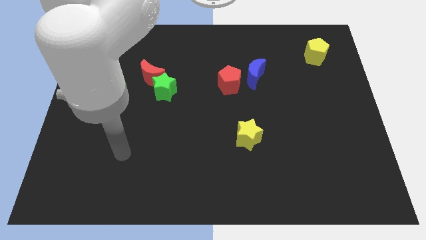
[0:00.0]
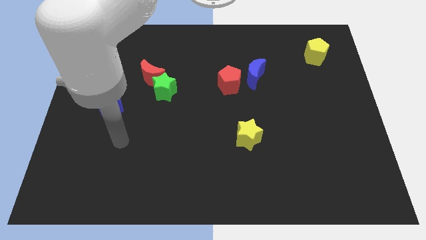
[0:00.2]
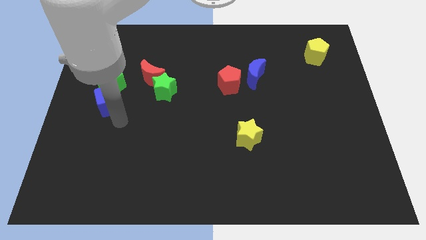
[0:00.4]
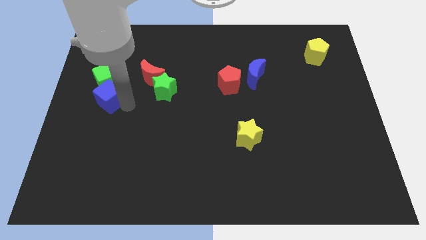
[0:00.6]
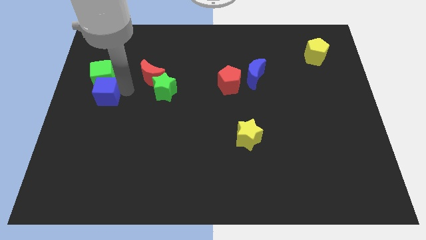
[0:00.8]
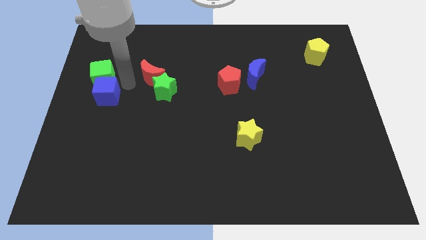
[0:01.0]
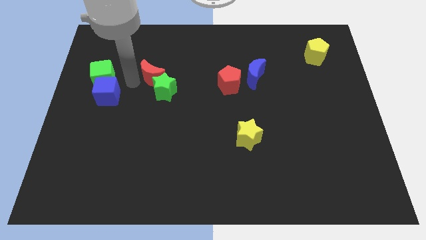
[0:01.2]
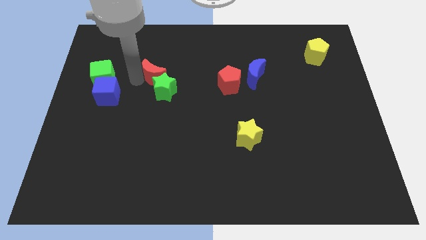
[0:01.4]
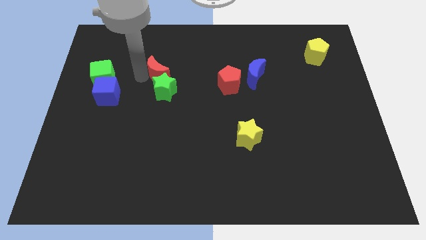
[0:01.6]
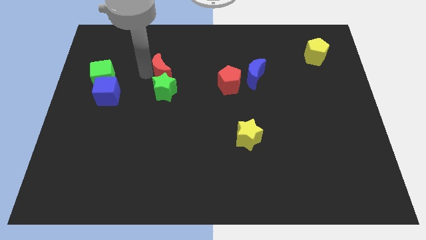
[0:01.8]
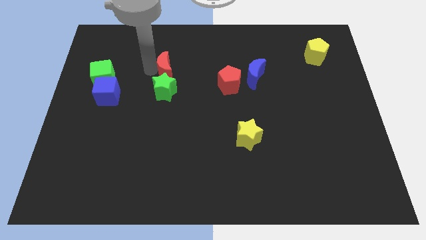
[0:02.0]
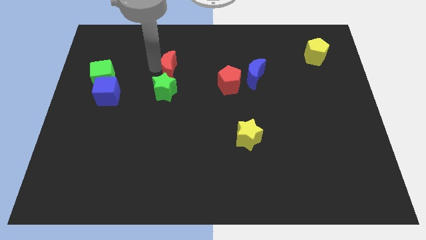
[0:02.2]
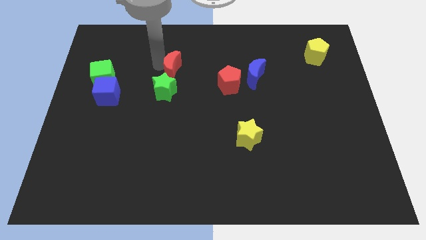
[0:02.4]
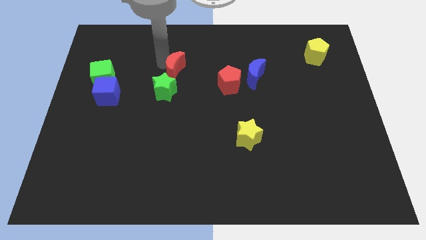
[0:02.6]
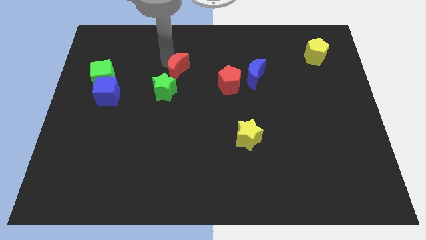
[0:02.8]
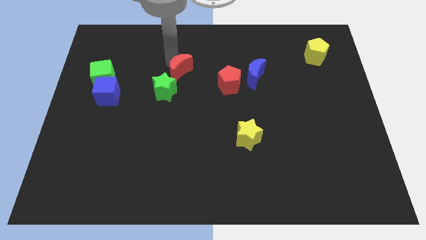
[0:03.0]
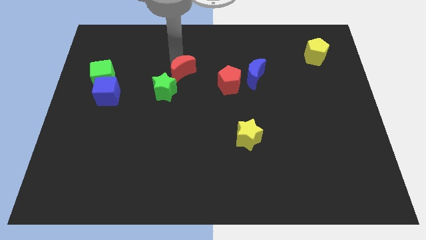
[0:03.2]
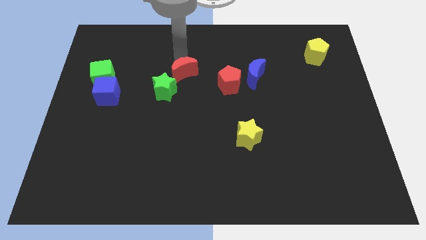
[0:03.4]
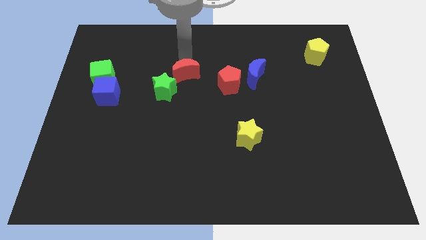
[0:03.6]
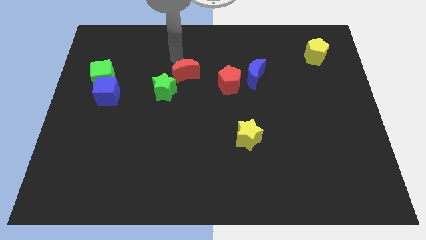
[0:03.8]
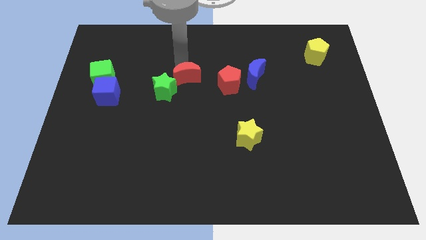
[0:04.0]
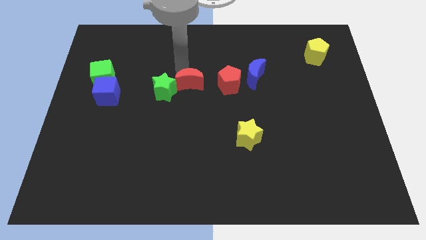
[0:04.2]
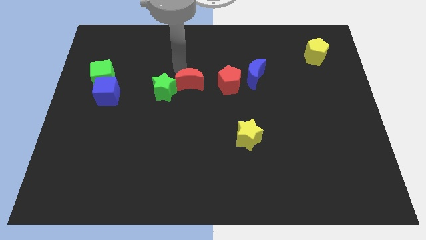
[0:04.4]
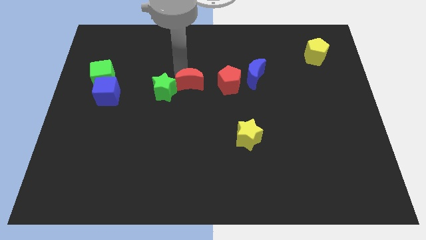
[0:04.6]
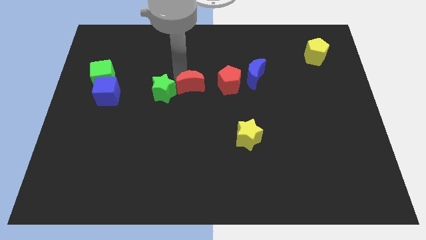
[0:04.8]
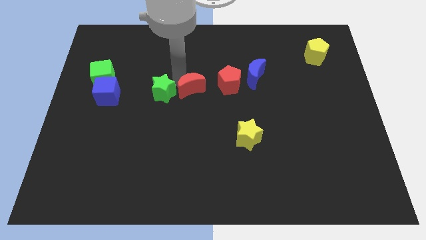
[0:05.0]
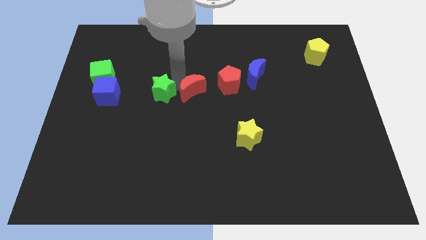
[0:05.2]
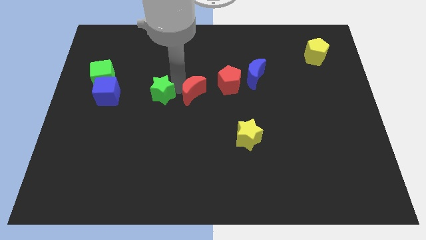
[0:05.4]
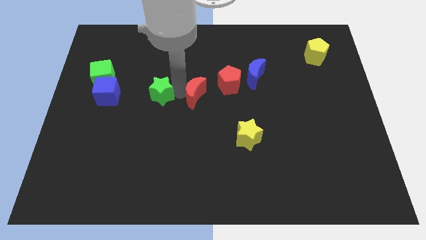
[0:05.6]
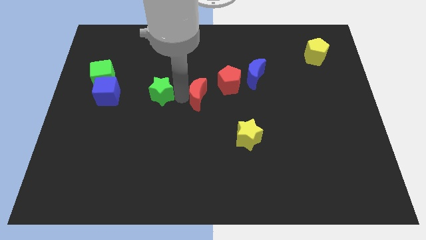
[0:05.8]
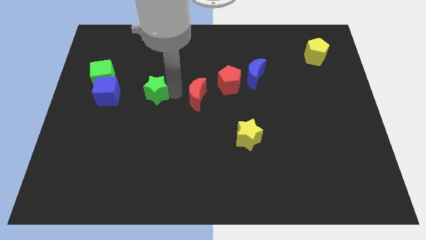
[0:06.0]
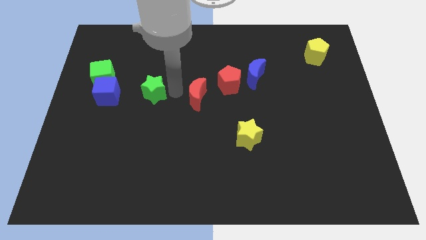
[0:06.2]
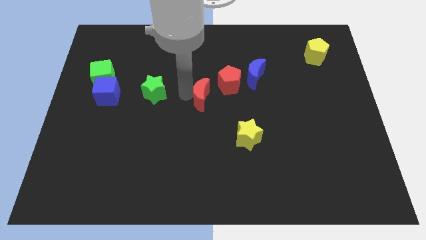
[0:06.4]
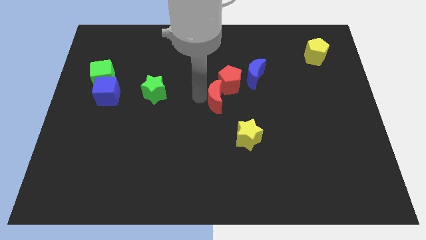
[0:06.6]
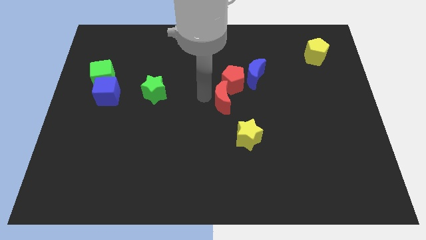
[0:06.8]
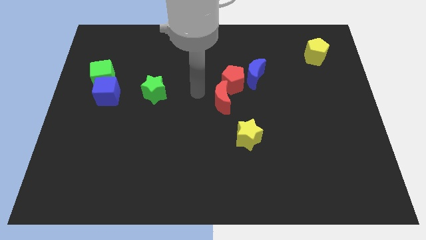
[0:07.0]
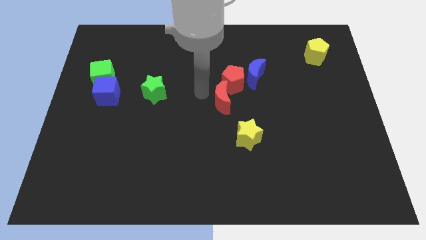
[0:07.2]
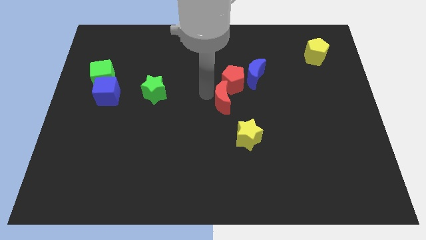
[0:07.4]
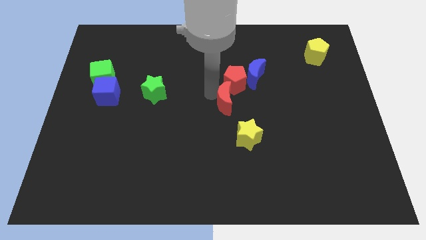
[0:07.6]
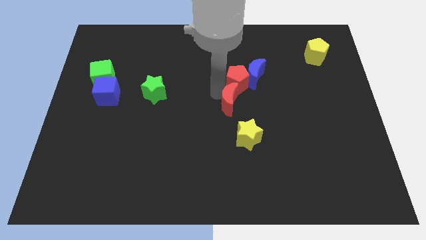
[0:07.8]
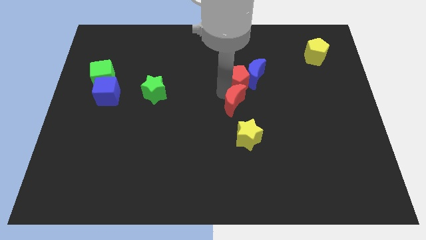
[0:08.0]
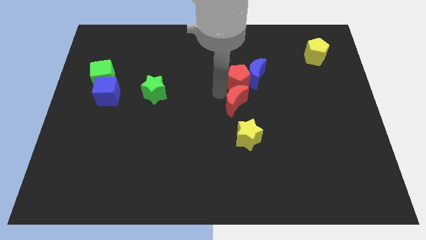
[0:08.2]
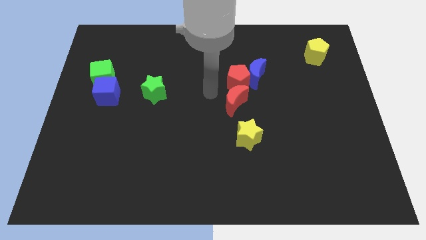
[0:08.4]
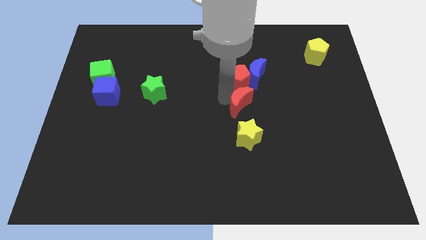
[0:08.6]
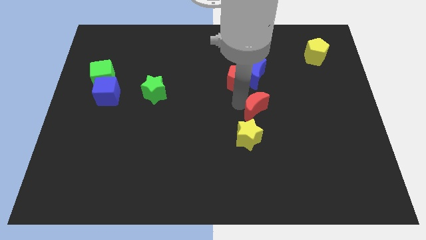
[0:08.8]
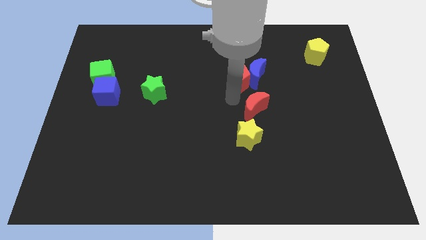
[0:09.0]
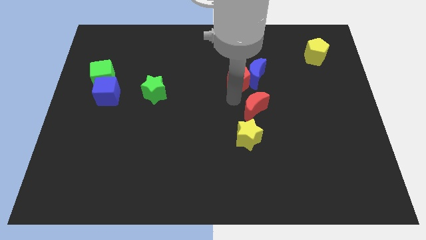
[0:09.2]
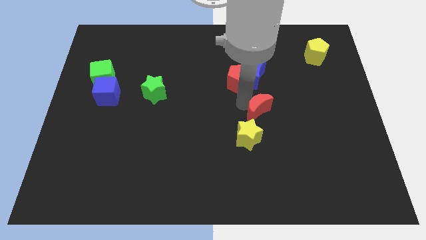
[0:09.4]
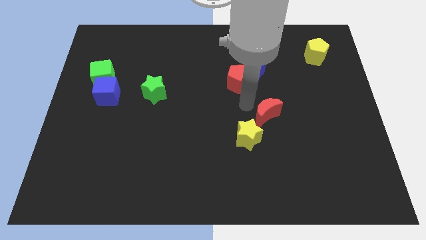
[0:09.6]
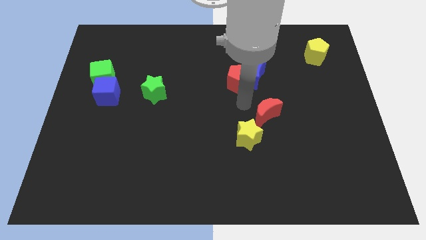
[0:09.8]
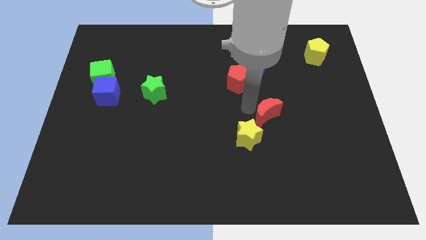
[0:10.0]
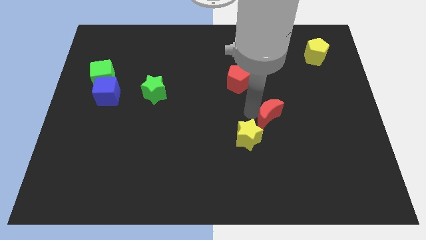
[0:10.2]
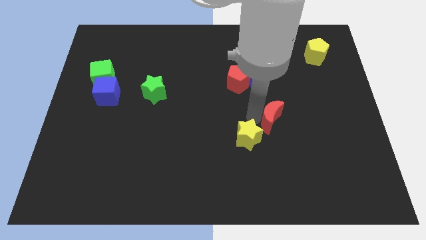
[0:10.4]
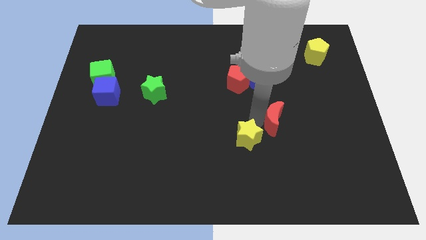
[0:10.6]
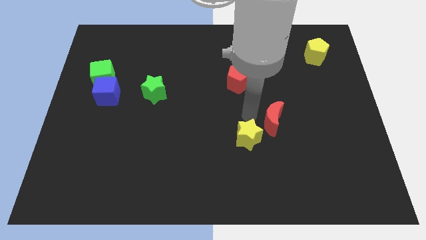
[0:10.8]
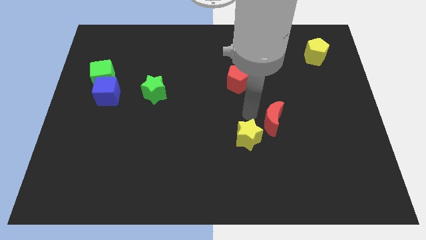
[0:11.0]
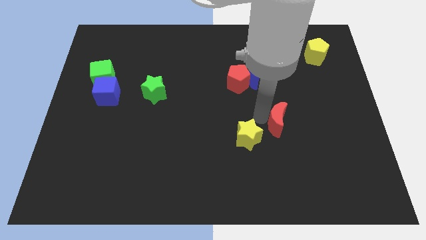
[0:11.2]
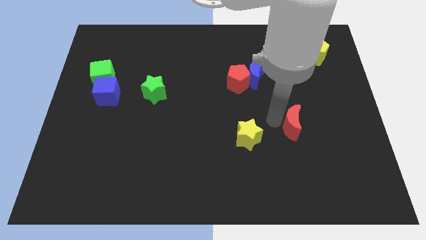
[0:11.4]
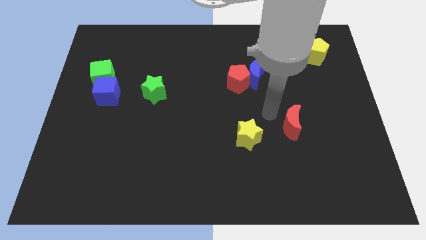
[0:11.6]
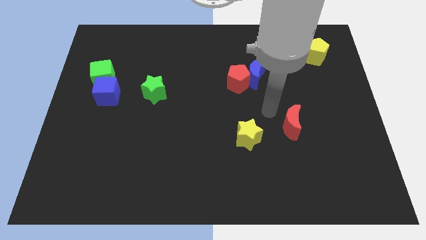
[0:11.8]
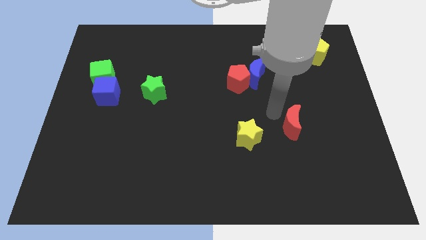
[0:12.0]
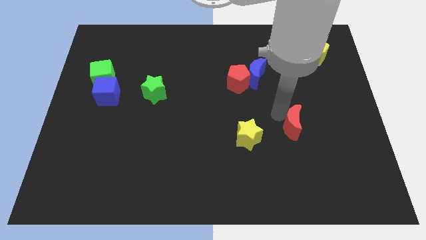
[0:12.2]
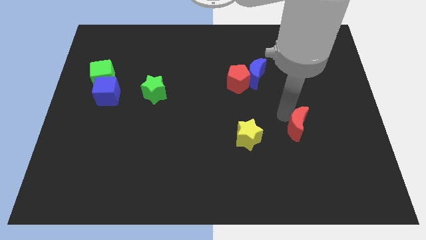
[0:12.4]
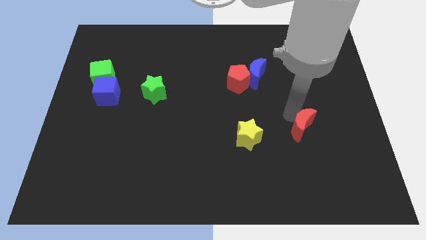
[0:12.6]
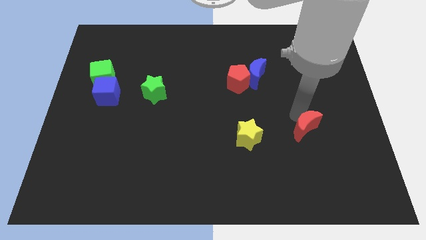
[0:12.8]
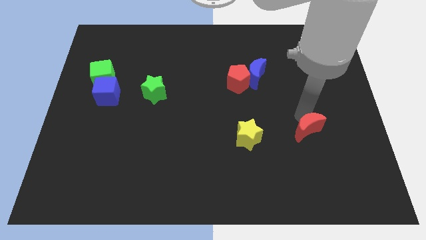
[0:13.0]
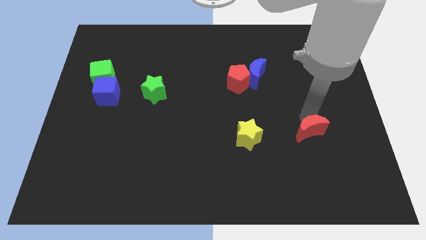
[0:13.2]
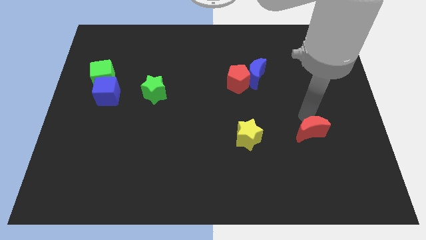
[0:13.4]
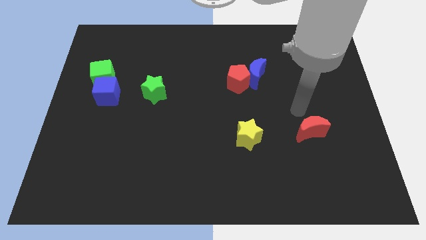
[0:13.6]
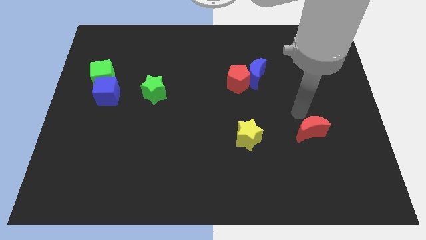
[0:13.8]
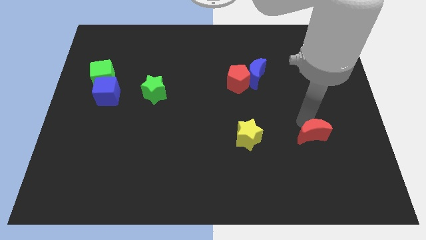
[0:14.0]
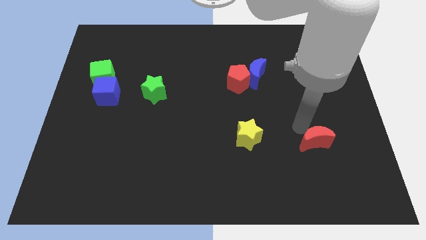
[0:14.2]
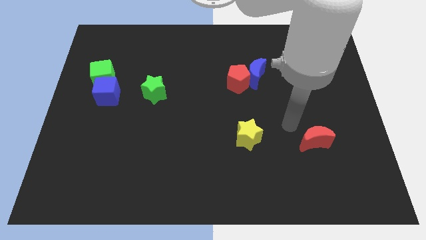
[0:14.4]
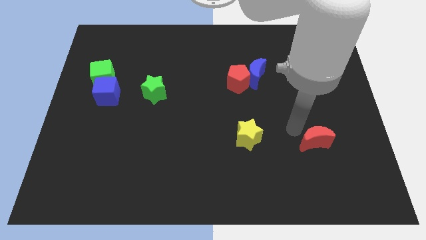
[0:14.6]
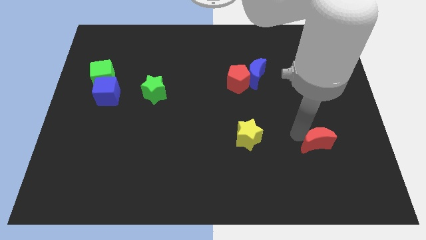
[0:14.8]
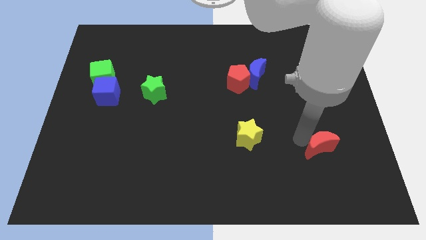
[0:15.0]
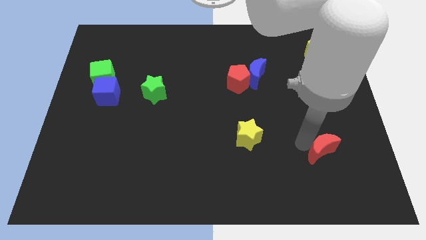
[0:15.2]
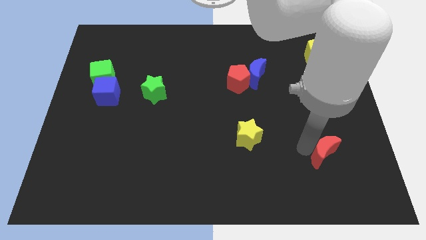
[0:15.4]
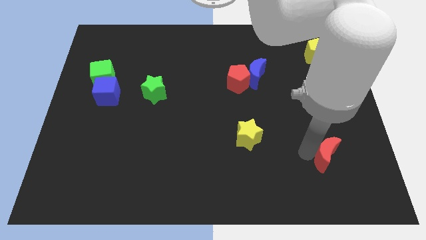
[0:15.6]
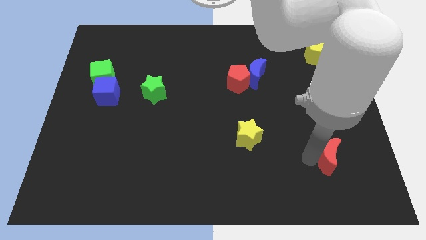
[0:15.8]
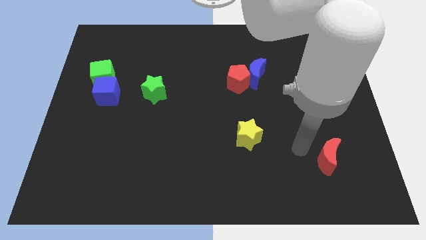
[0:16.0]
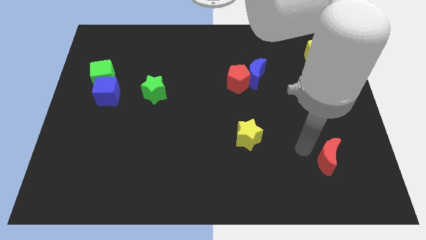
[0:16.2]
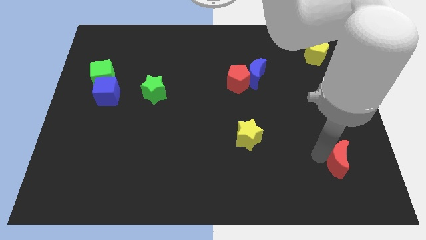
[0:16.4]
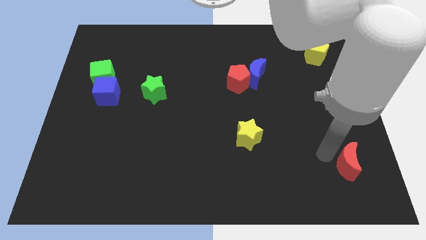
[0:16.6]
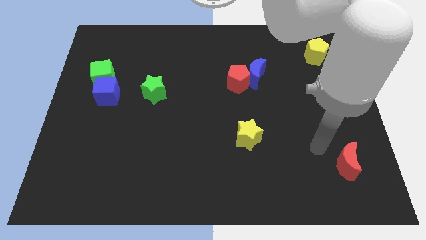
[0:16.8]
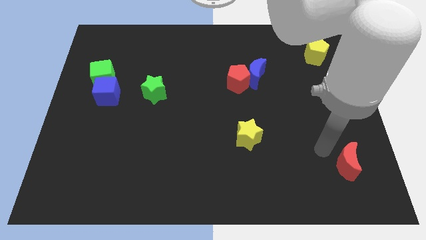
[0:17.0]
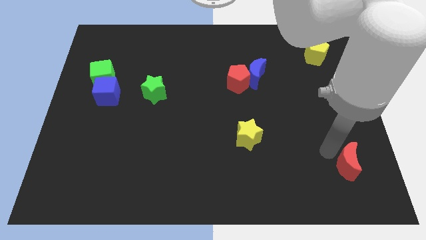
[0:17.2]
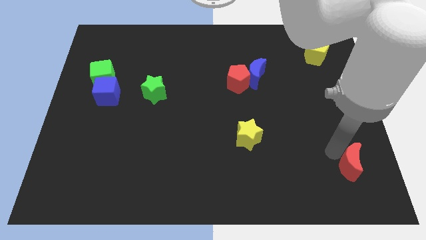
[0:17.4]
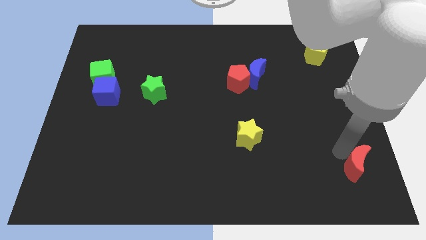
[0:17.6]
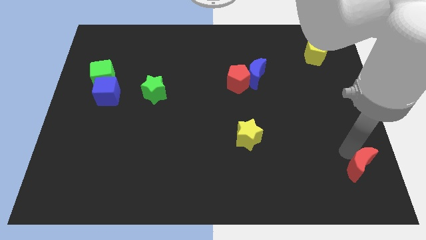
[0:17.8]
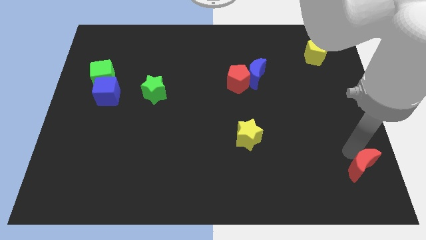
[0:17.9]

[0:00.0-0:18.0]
push the red moon to the lower right corner
